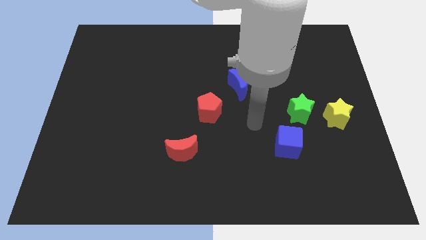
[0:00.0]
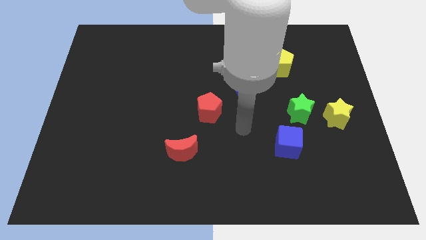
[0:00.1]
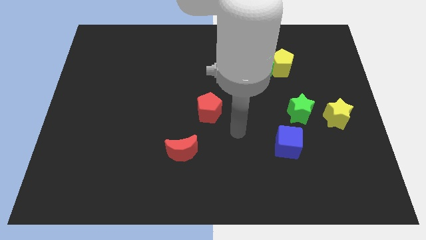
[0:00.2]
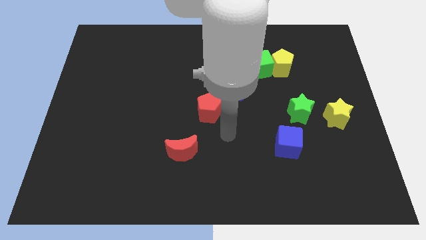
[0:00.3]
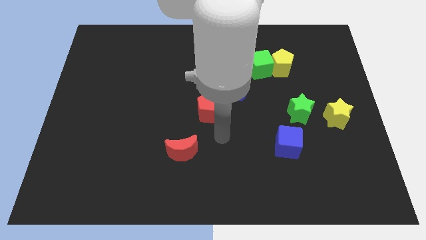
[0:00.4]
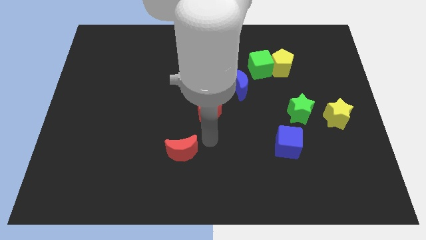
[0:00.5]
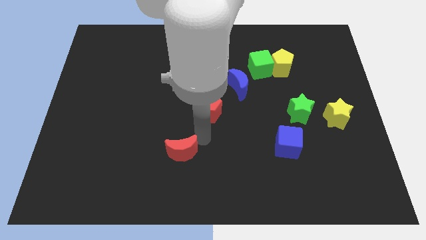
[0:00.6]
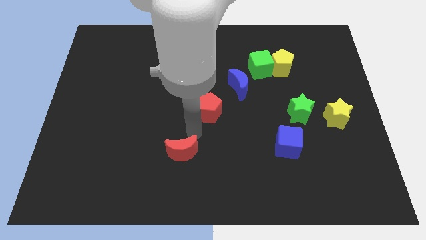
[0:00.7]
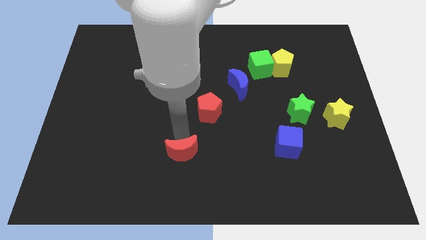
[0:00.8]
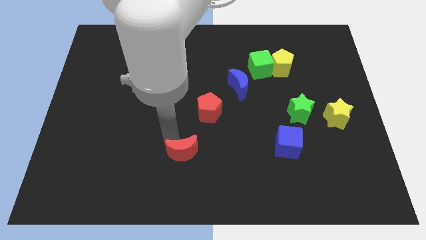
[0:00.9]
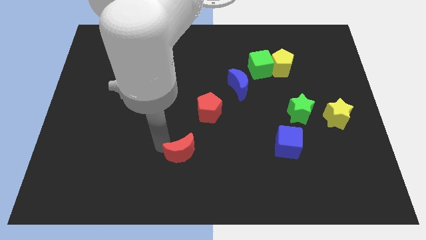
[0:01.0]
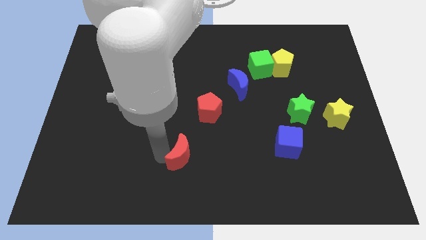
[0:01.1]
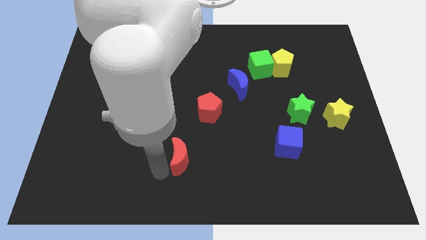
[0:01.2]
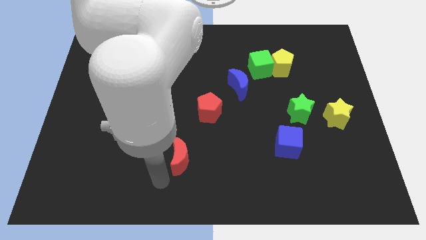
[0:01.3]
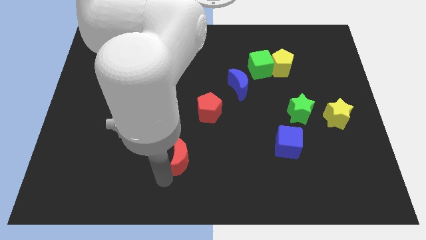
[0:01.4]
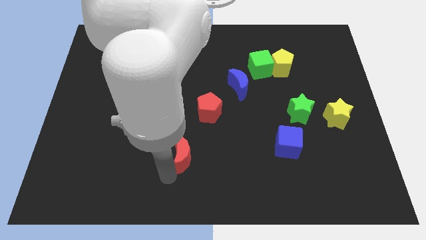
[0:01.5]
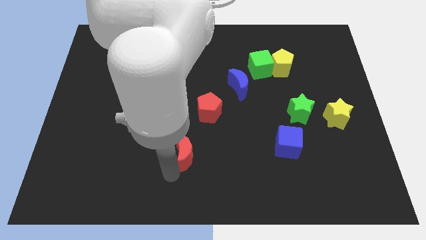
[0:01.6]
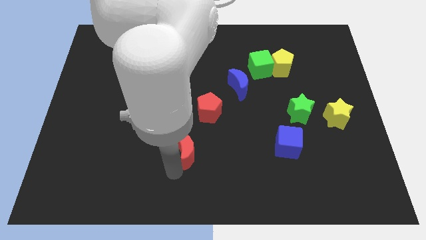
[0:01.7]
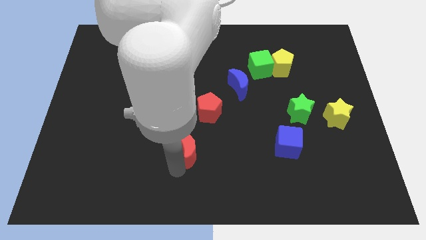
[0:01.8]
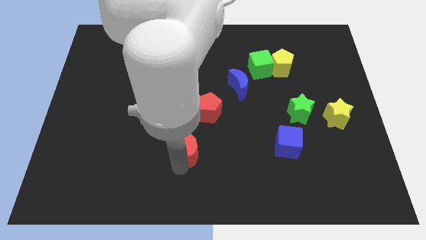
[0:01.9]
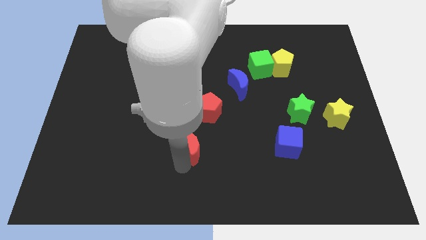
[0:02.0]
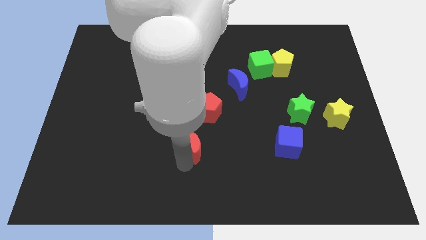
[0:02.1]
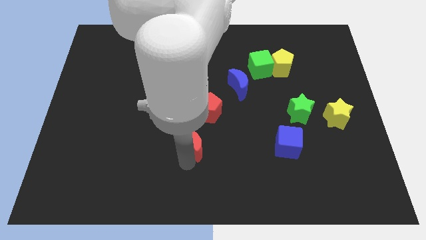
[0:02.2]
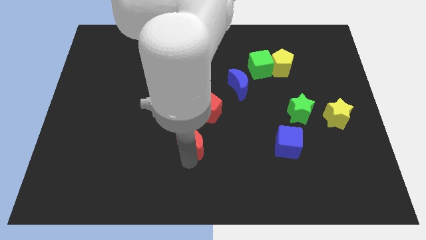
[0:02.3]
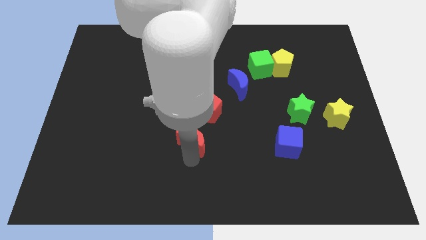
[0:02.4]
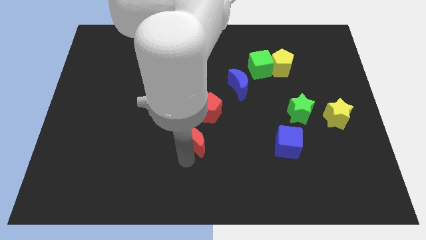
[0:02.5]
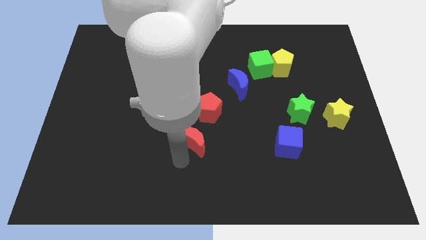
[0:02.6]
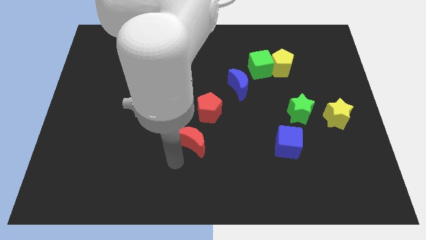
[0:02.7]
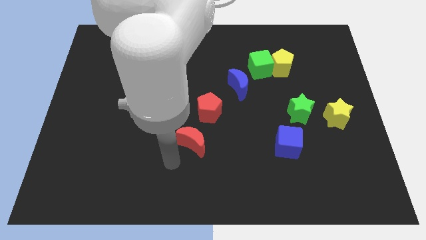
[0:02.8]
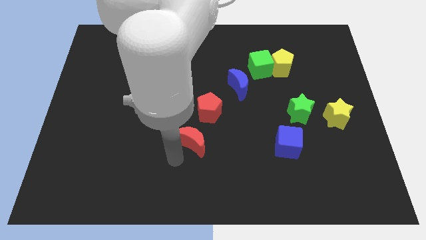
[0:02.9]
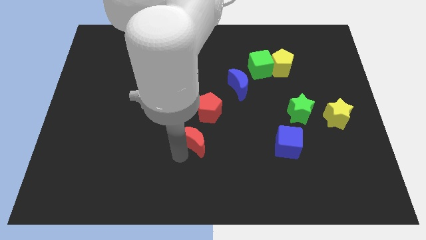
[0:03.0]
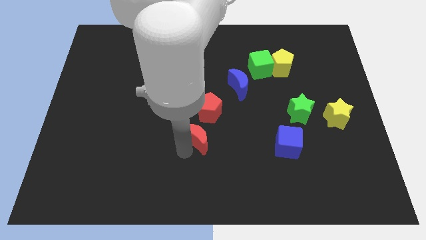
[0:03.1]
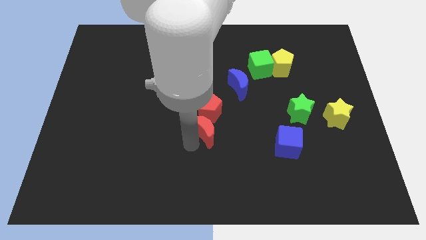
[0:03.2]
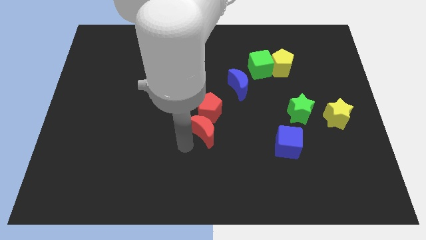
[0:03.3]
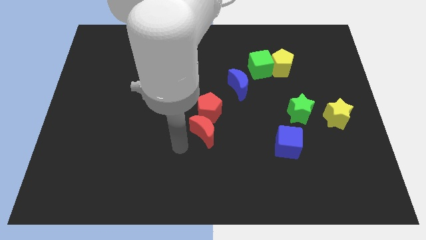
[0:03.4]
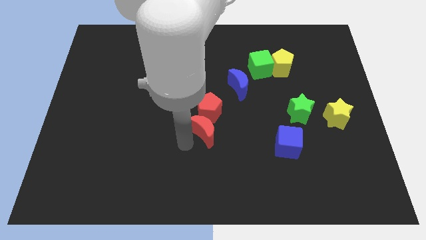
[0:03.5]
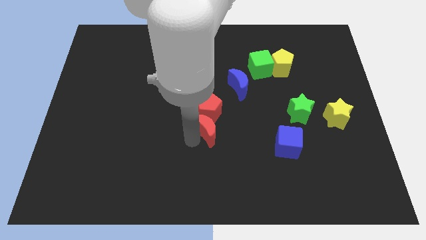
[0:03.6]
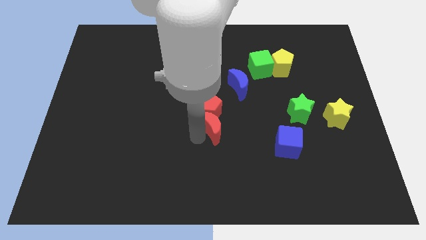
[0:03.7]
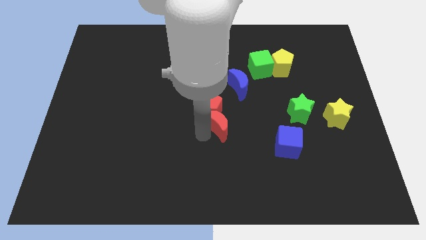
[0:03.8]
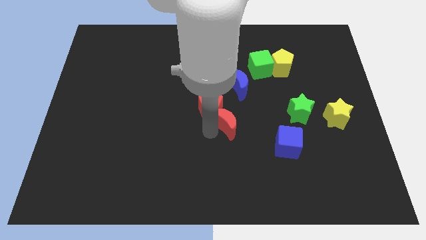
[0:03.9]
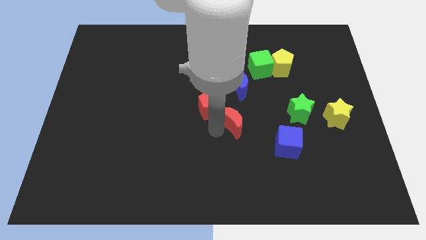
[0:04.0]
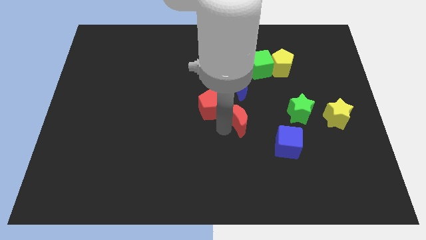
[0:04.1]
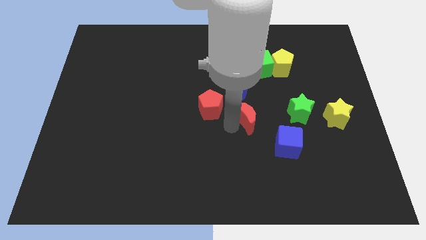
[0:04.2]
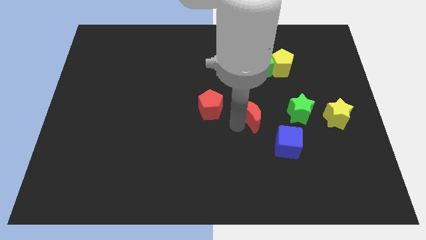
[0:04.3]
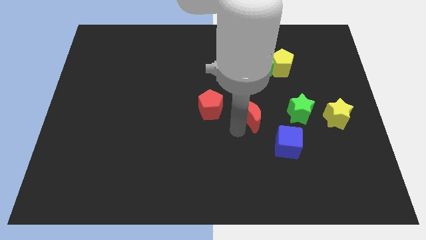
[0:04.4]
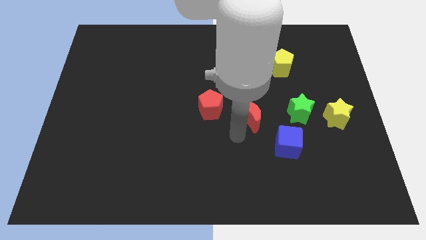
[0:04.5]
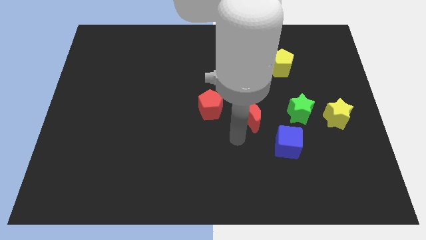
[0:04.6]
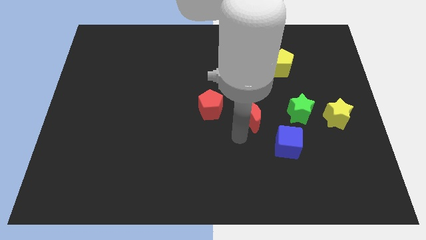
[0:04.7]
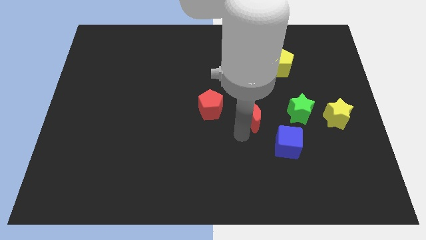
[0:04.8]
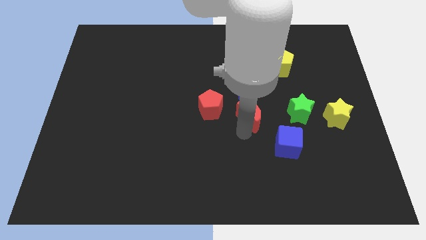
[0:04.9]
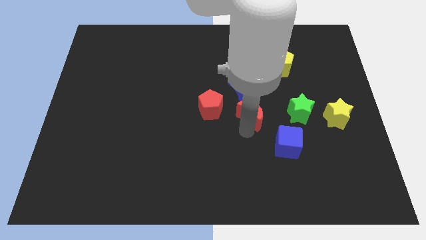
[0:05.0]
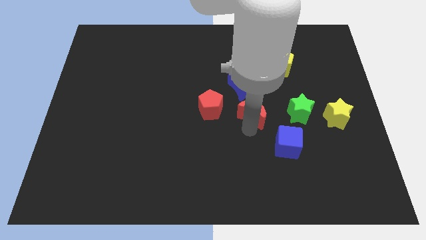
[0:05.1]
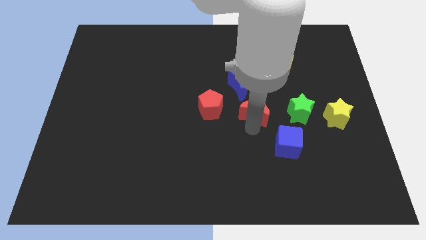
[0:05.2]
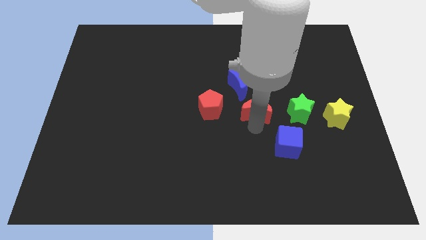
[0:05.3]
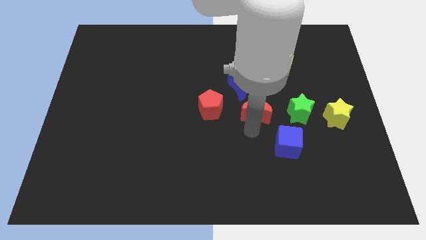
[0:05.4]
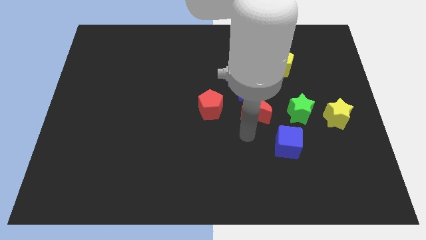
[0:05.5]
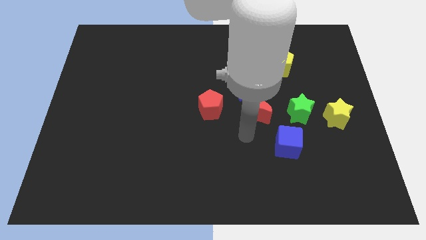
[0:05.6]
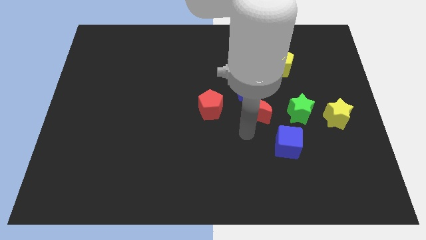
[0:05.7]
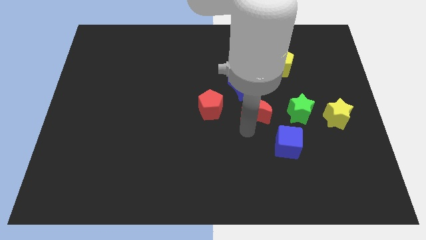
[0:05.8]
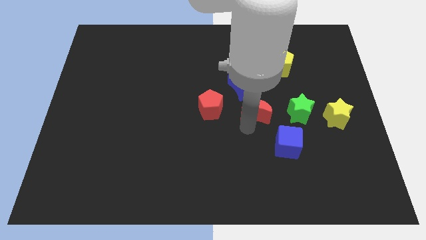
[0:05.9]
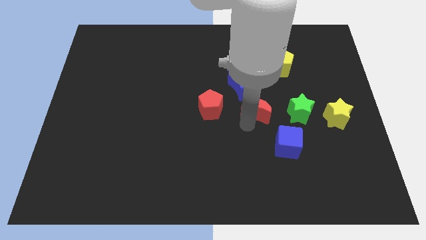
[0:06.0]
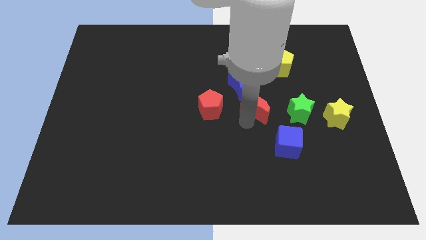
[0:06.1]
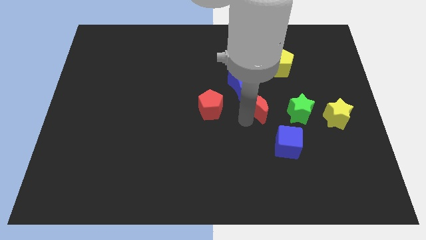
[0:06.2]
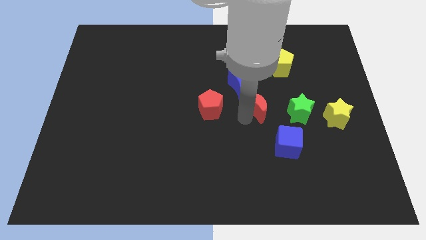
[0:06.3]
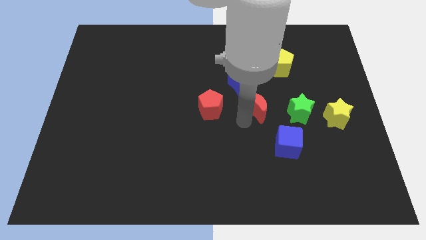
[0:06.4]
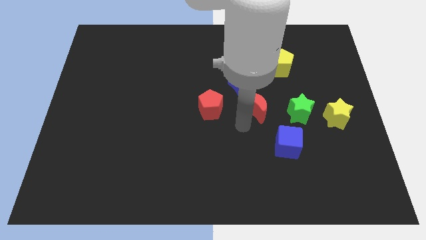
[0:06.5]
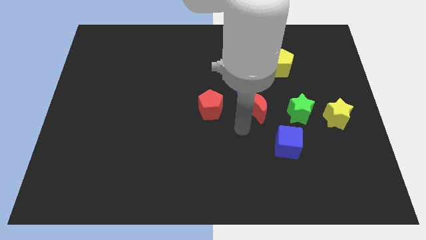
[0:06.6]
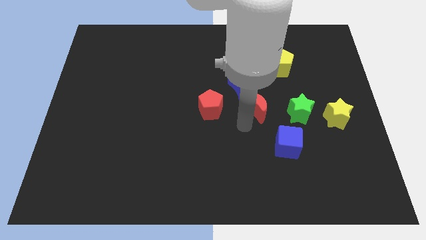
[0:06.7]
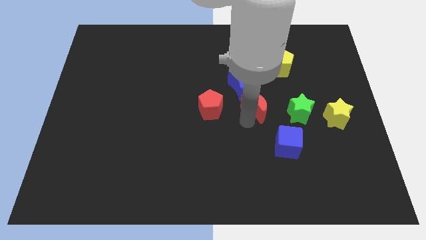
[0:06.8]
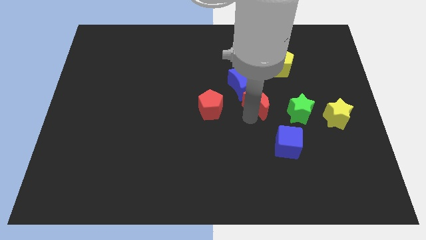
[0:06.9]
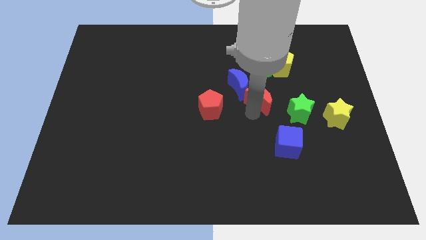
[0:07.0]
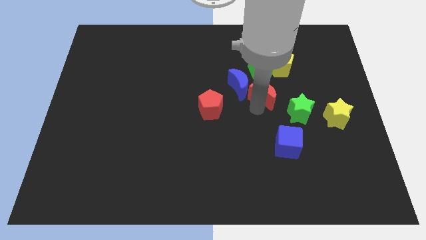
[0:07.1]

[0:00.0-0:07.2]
put the red moon to the bottom left of the yellow pentagon
